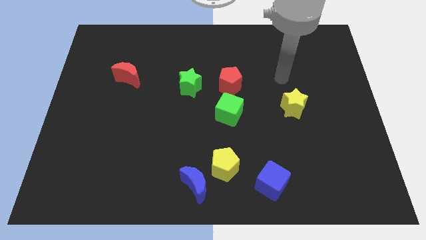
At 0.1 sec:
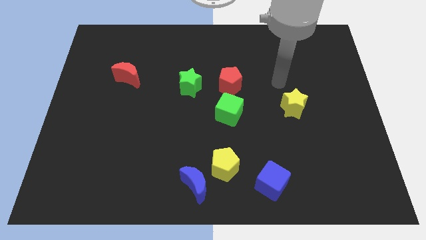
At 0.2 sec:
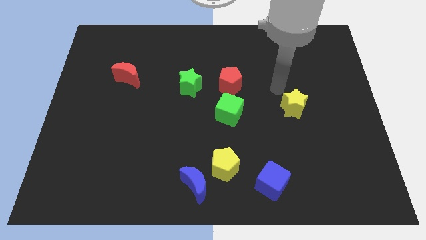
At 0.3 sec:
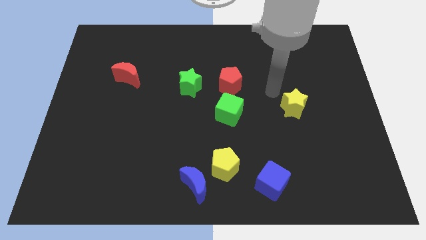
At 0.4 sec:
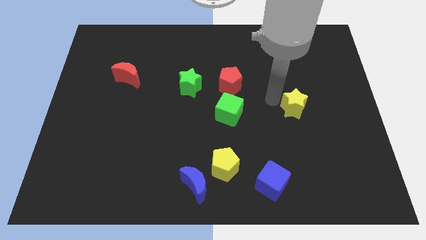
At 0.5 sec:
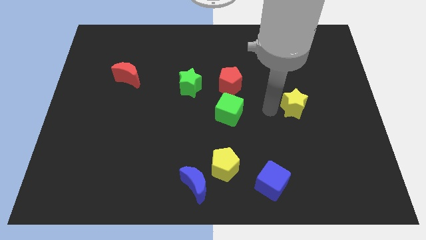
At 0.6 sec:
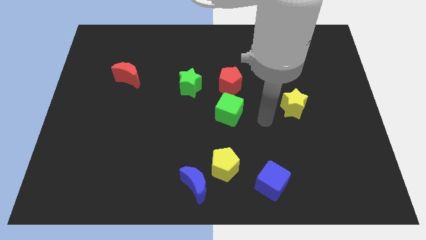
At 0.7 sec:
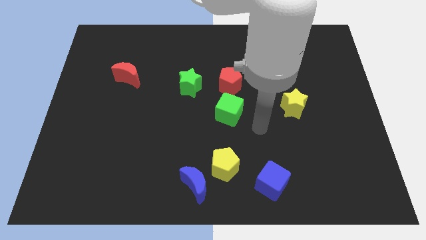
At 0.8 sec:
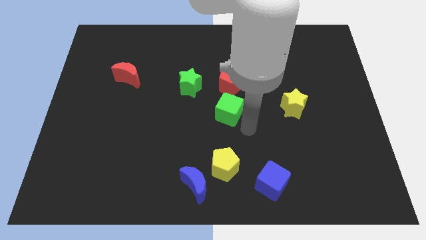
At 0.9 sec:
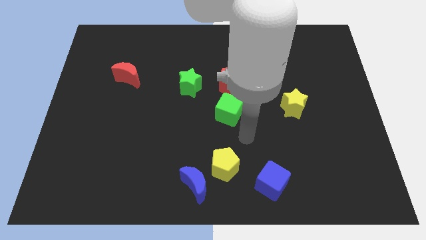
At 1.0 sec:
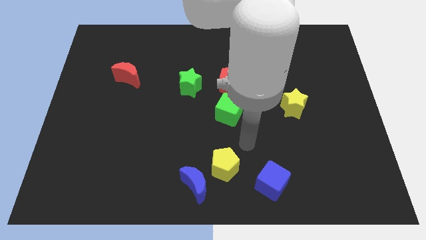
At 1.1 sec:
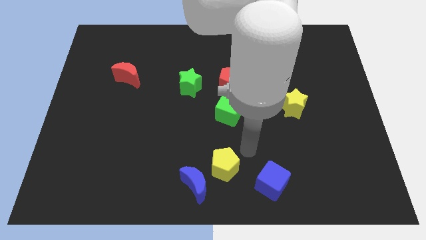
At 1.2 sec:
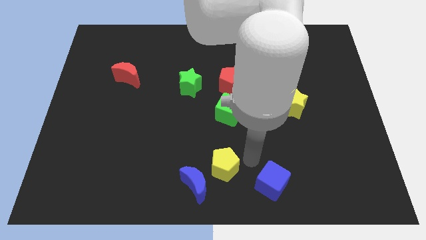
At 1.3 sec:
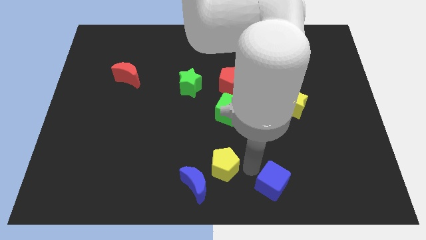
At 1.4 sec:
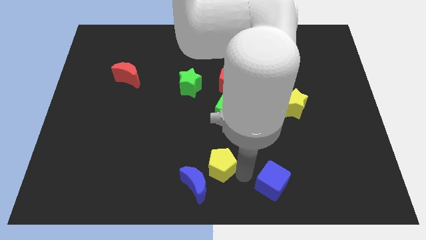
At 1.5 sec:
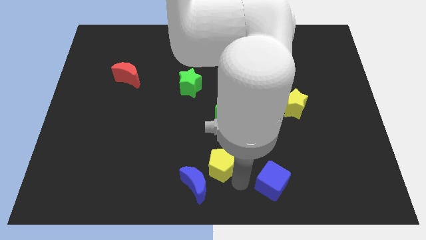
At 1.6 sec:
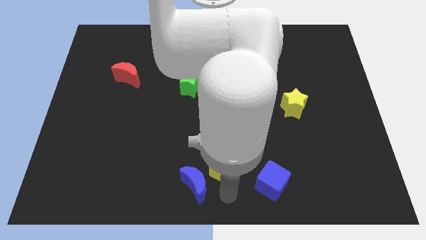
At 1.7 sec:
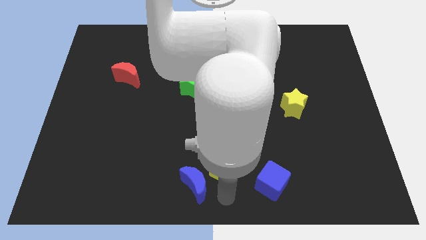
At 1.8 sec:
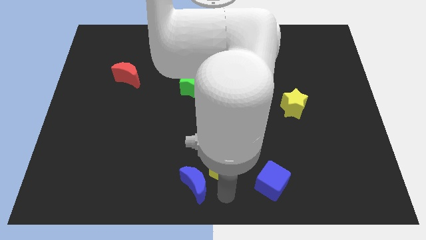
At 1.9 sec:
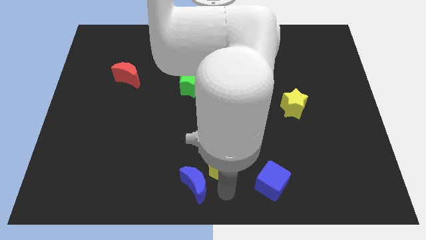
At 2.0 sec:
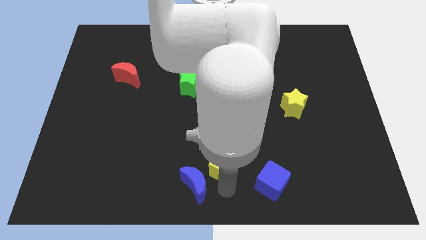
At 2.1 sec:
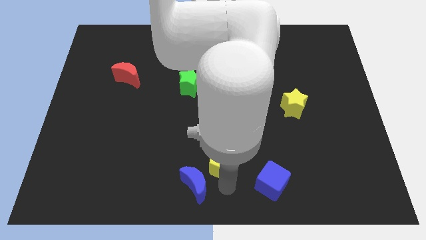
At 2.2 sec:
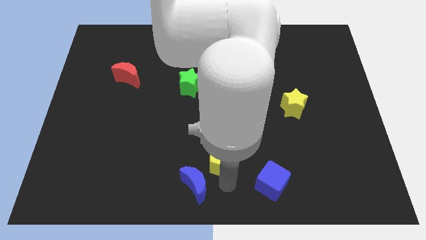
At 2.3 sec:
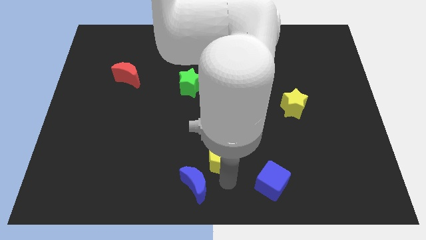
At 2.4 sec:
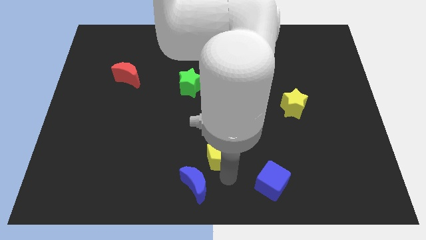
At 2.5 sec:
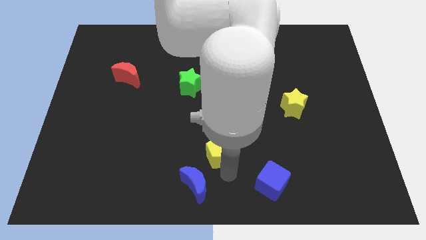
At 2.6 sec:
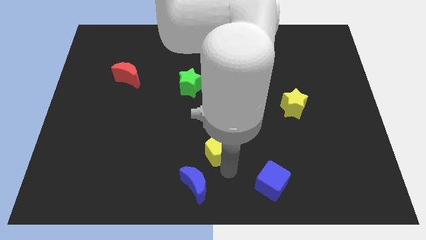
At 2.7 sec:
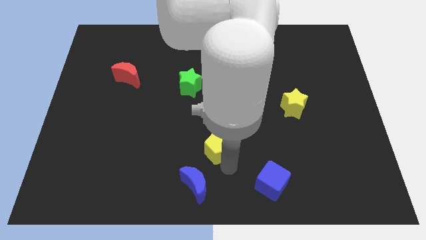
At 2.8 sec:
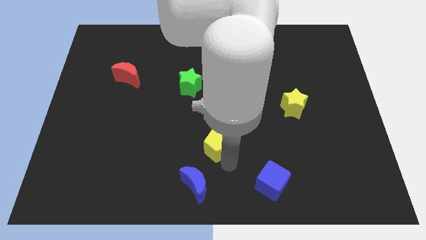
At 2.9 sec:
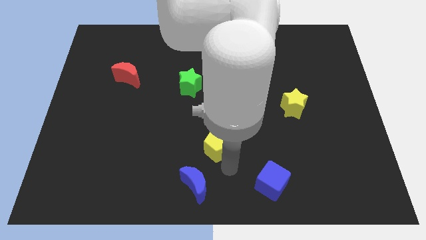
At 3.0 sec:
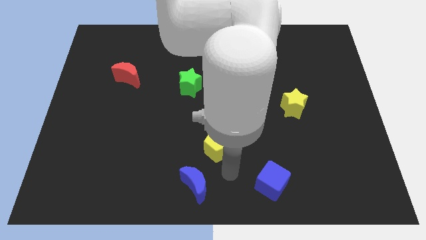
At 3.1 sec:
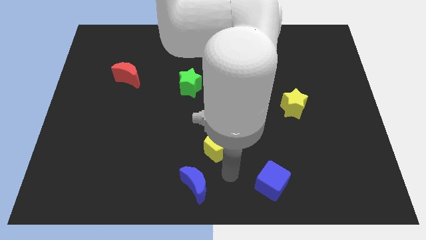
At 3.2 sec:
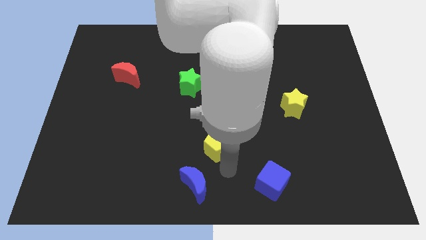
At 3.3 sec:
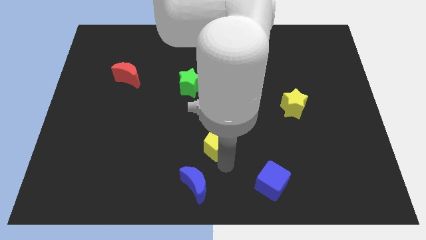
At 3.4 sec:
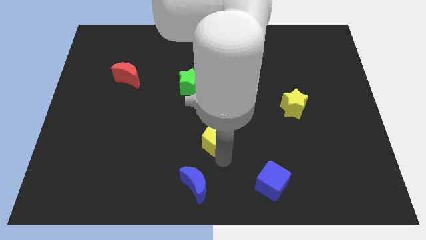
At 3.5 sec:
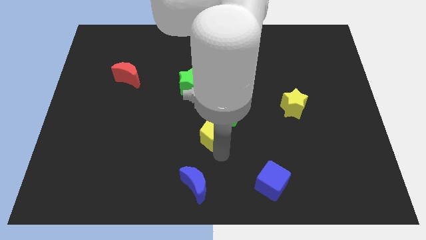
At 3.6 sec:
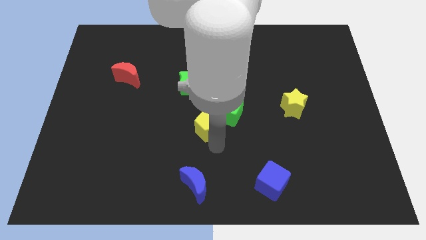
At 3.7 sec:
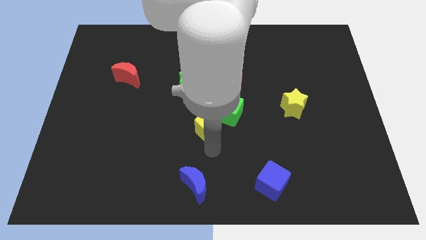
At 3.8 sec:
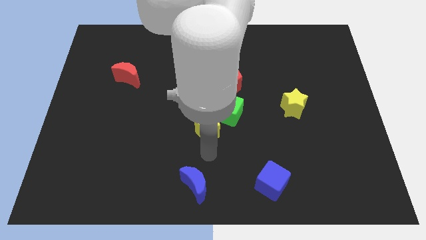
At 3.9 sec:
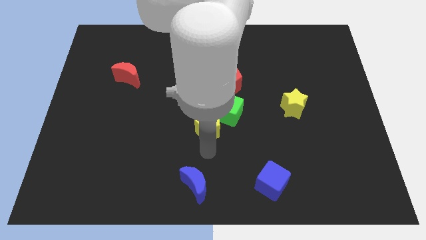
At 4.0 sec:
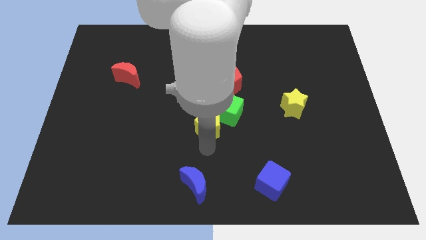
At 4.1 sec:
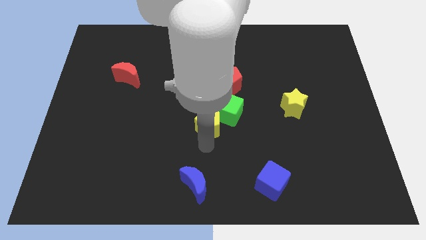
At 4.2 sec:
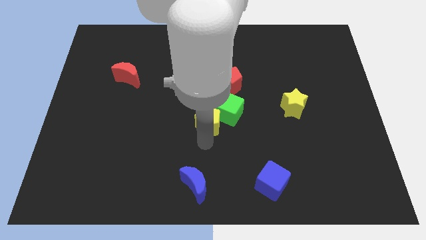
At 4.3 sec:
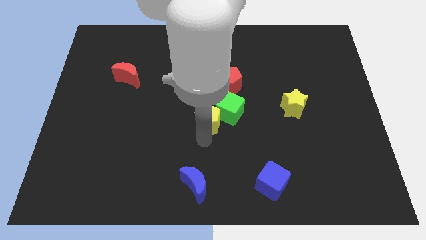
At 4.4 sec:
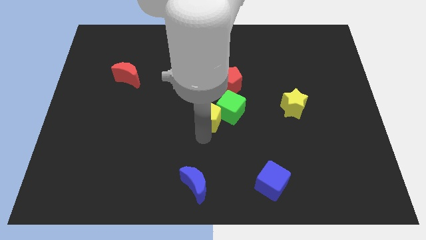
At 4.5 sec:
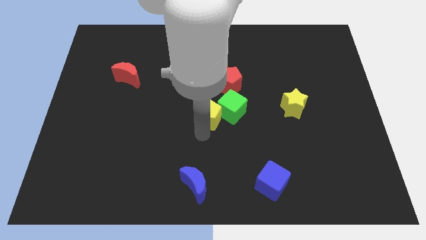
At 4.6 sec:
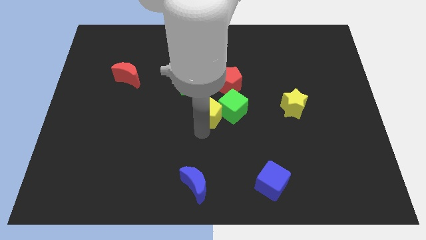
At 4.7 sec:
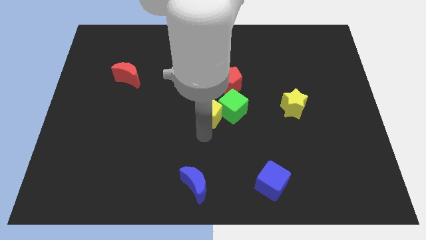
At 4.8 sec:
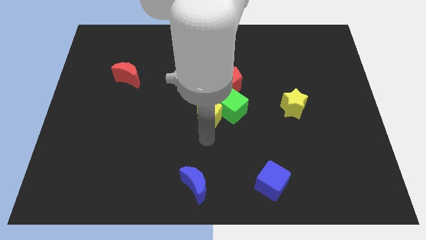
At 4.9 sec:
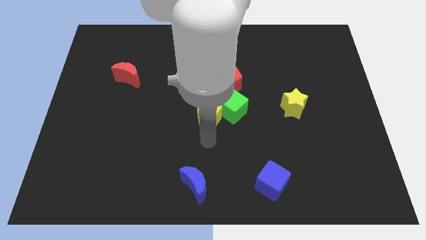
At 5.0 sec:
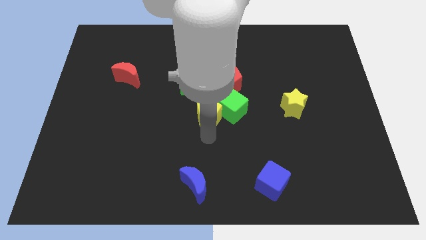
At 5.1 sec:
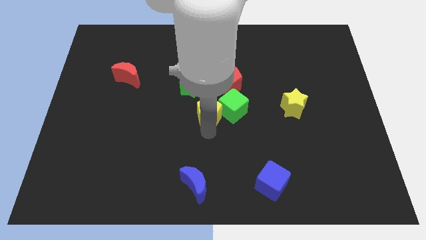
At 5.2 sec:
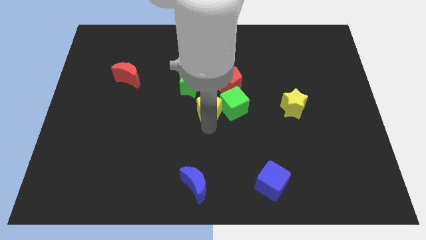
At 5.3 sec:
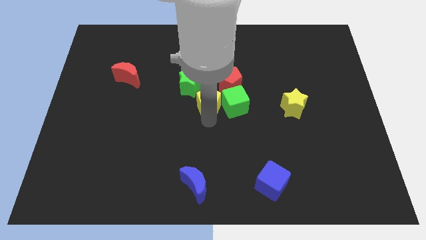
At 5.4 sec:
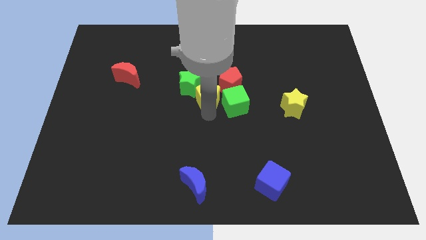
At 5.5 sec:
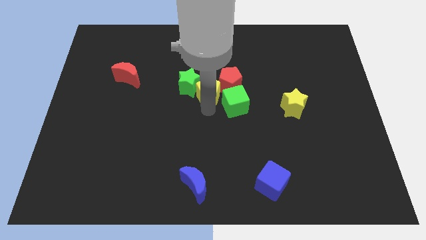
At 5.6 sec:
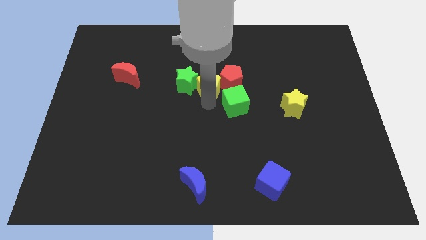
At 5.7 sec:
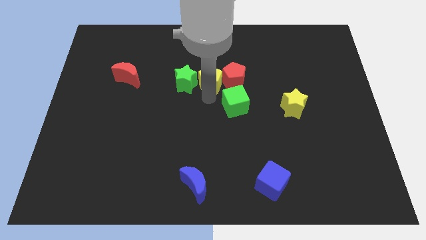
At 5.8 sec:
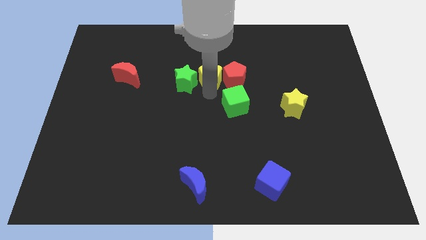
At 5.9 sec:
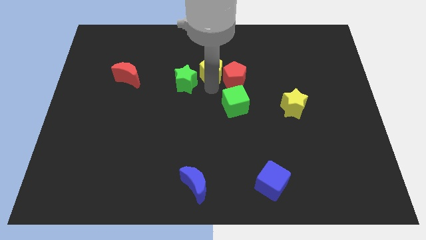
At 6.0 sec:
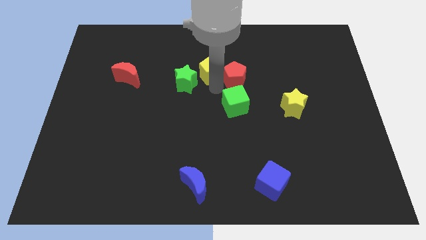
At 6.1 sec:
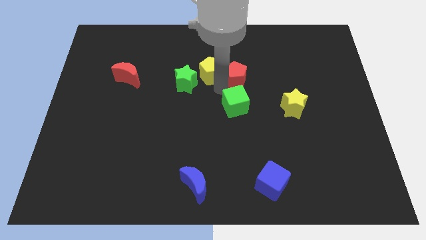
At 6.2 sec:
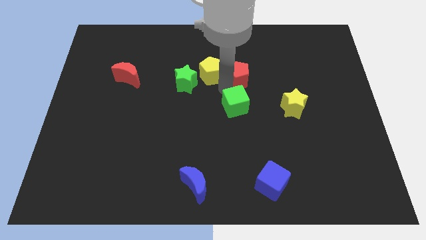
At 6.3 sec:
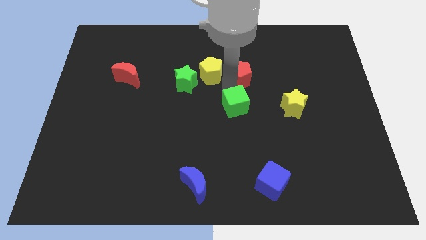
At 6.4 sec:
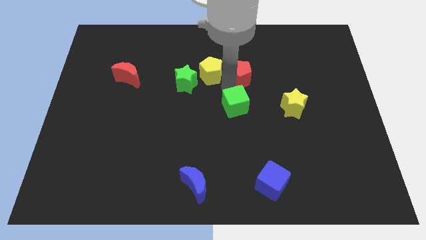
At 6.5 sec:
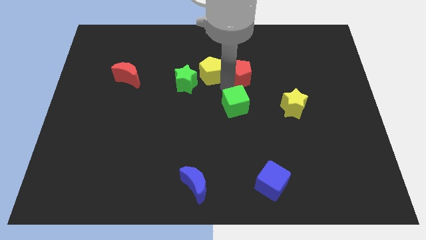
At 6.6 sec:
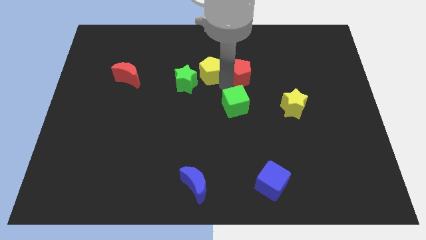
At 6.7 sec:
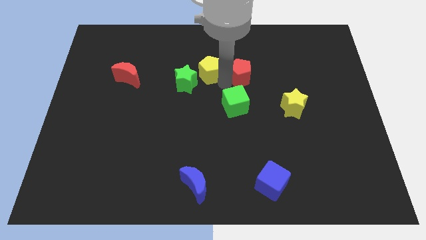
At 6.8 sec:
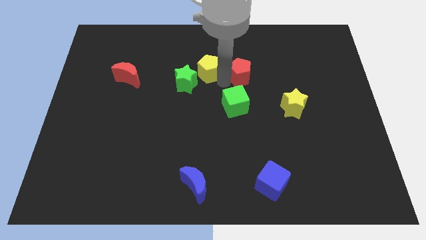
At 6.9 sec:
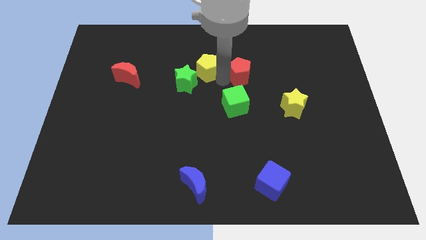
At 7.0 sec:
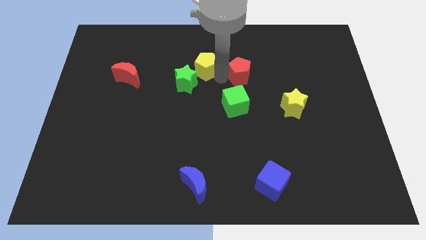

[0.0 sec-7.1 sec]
push the yellow pentagon to the top of the green star
